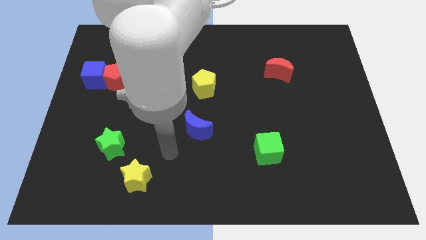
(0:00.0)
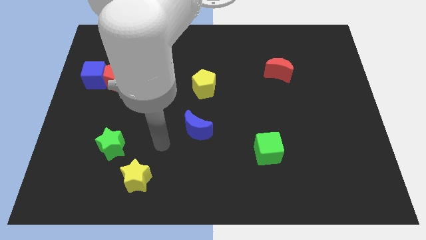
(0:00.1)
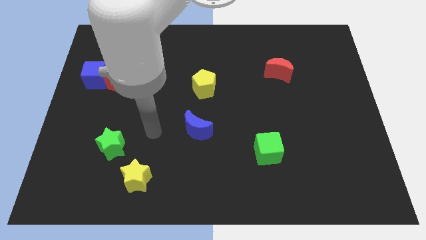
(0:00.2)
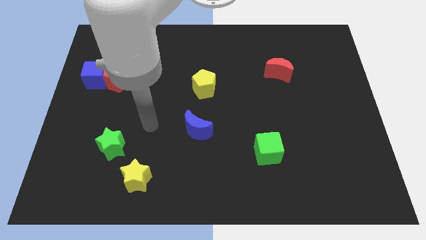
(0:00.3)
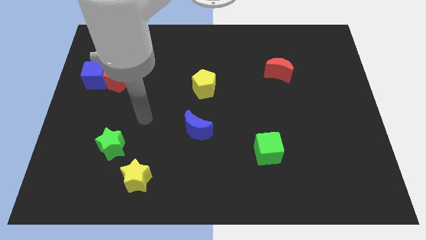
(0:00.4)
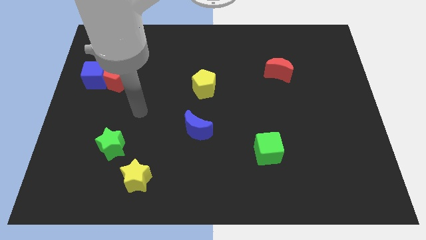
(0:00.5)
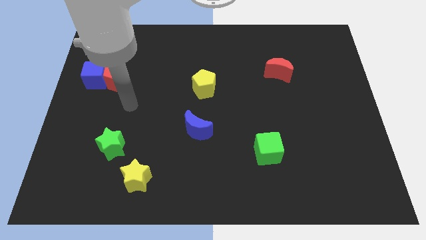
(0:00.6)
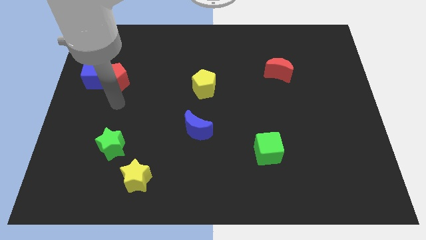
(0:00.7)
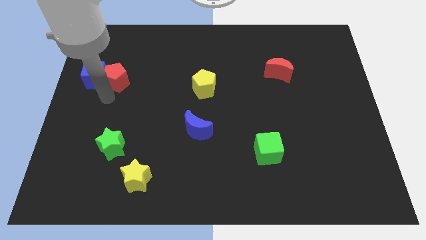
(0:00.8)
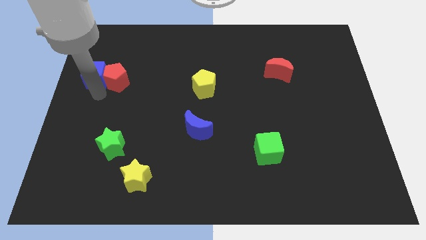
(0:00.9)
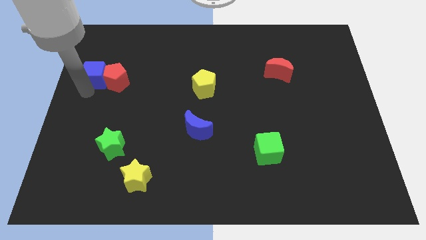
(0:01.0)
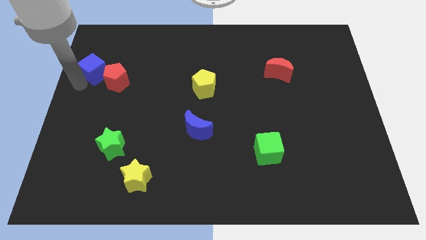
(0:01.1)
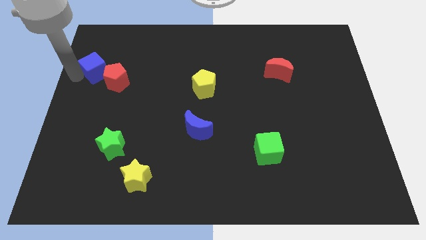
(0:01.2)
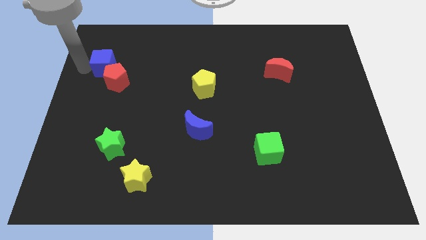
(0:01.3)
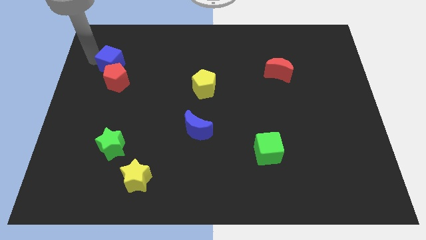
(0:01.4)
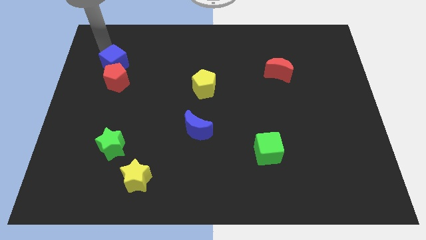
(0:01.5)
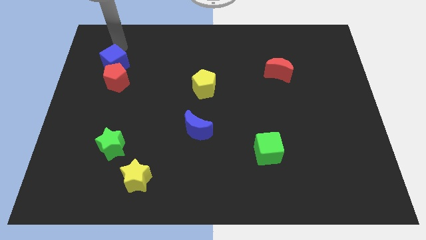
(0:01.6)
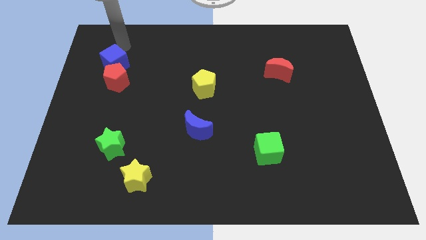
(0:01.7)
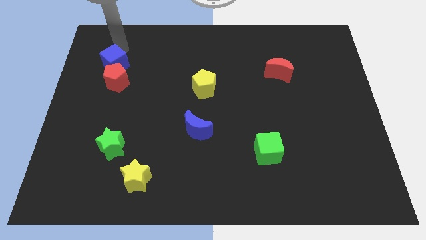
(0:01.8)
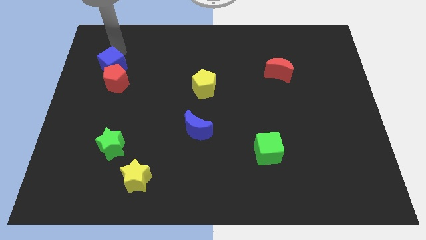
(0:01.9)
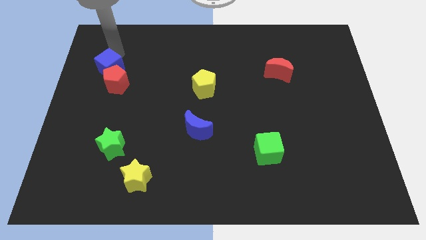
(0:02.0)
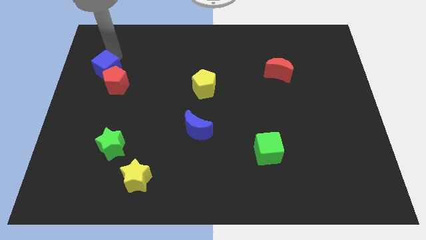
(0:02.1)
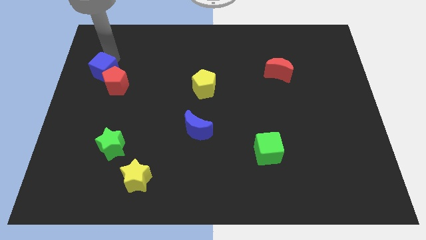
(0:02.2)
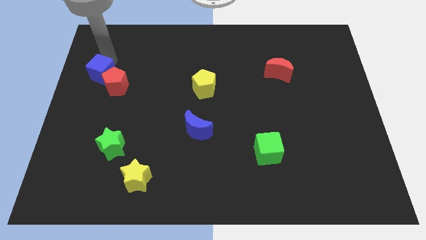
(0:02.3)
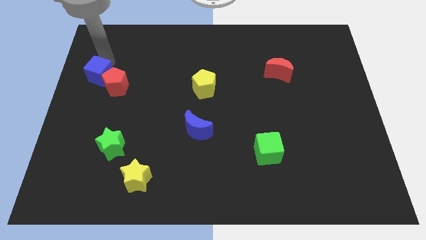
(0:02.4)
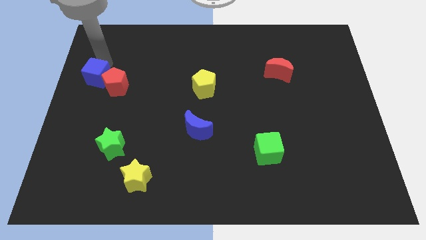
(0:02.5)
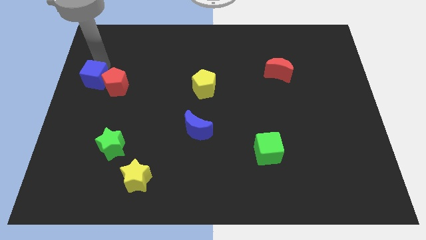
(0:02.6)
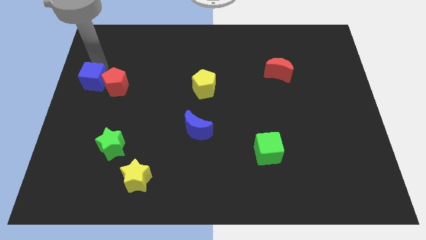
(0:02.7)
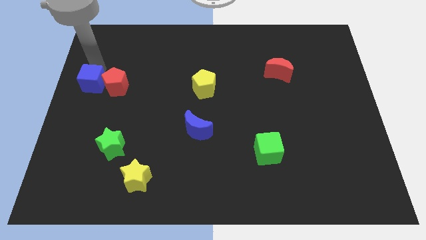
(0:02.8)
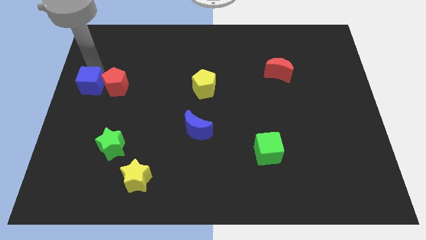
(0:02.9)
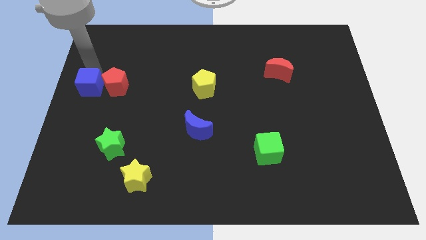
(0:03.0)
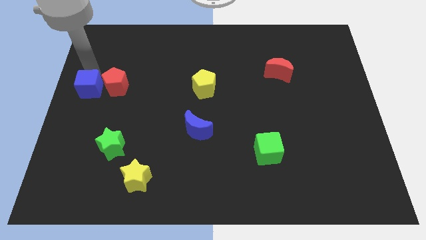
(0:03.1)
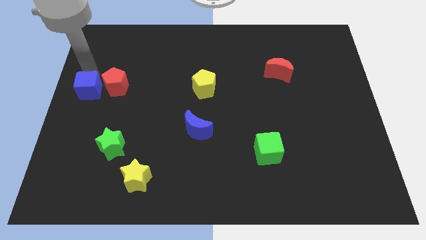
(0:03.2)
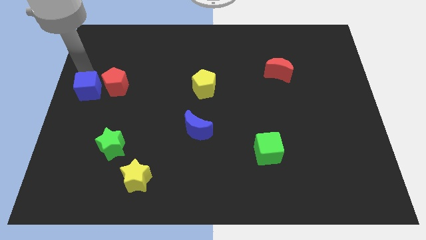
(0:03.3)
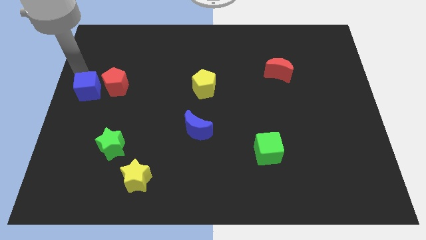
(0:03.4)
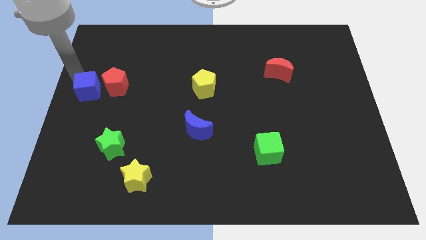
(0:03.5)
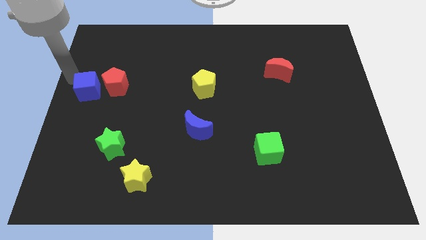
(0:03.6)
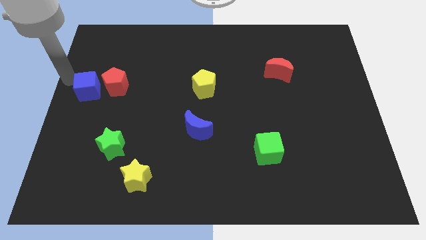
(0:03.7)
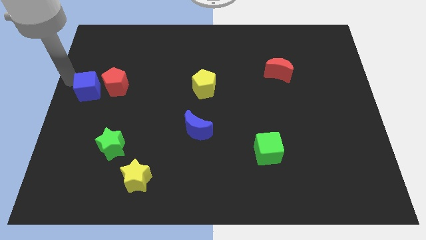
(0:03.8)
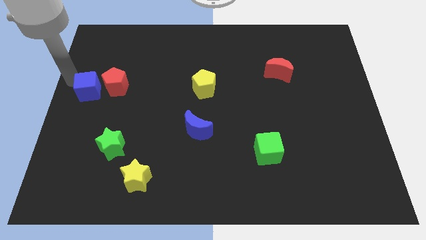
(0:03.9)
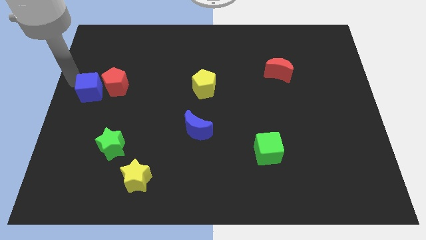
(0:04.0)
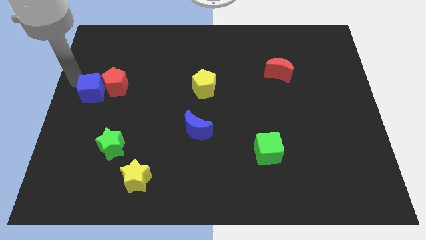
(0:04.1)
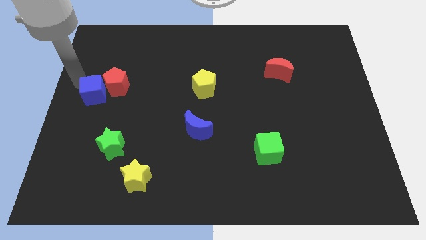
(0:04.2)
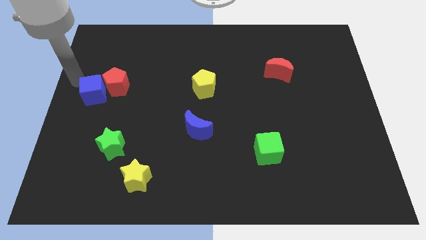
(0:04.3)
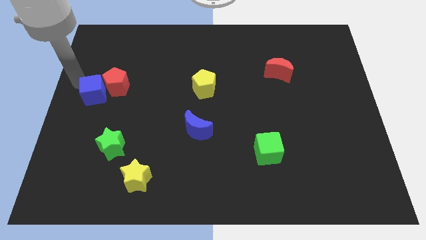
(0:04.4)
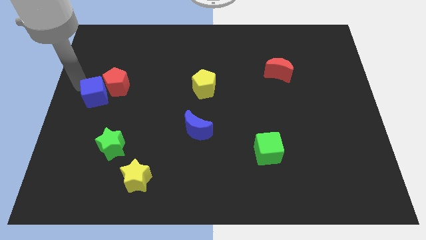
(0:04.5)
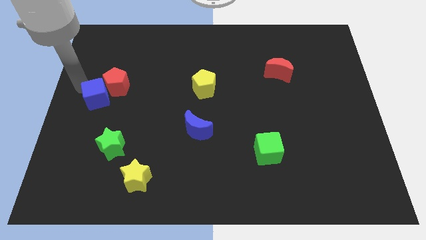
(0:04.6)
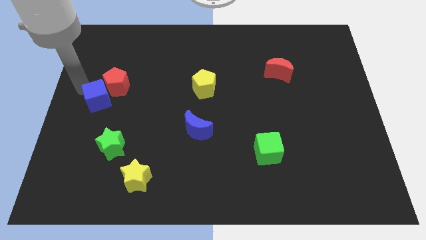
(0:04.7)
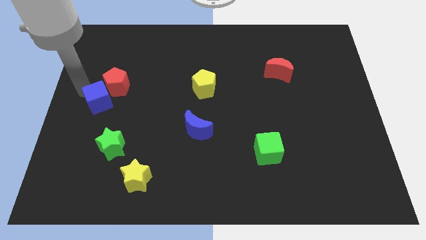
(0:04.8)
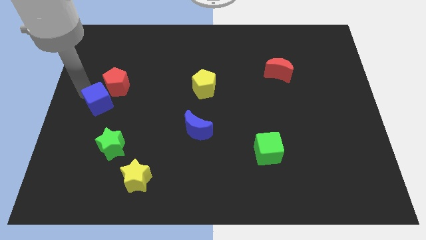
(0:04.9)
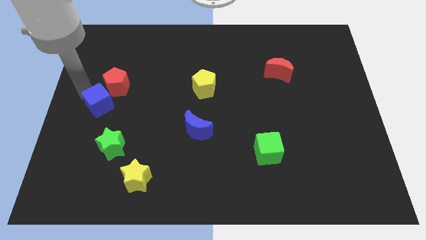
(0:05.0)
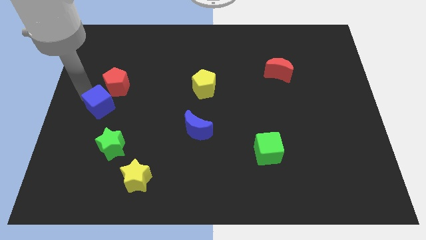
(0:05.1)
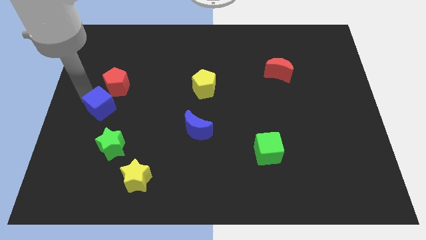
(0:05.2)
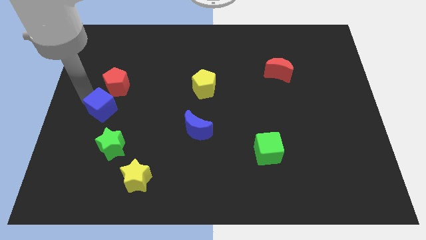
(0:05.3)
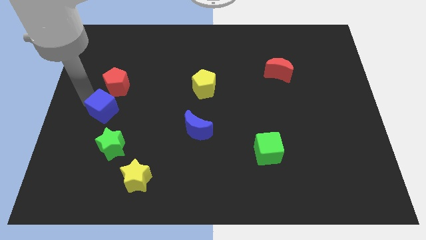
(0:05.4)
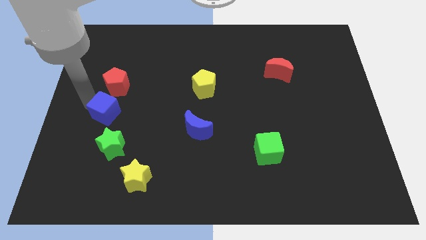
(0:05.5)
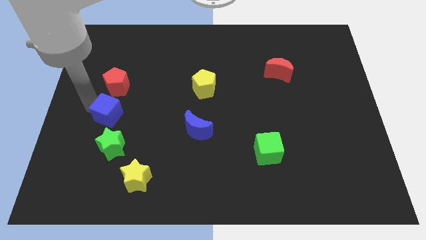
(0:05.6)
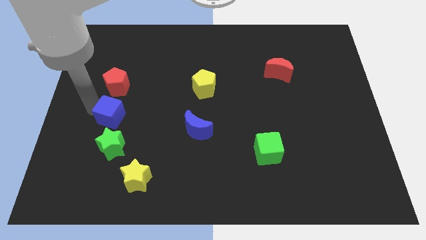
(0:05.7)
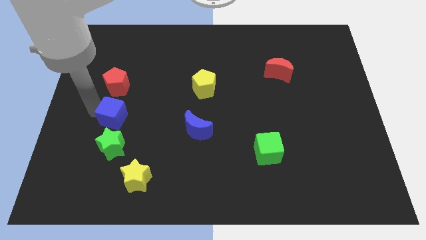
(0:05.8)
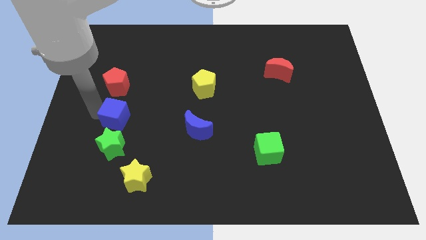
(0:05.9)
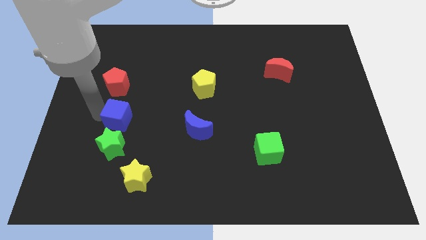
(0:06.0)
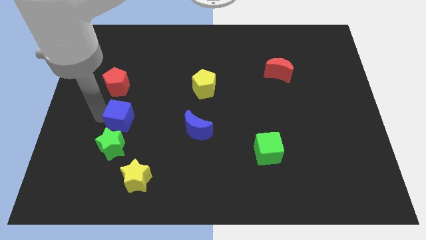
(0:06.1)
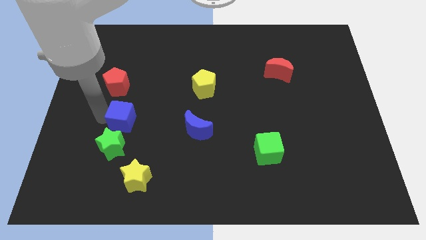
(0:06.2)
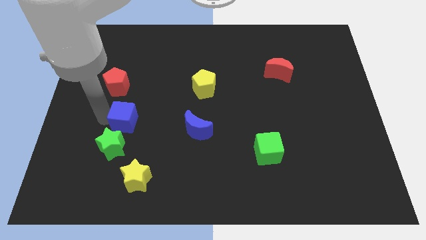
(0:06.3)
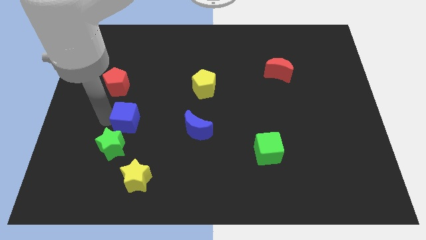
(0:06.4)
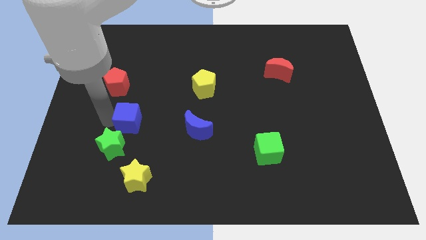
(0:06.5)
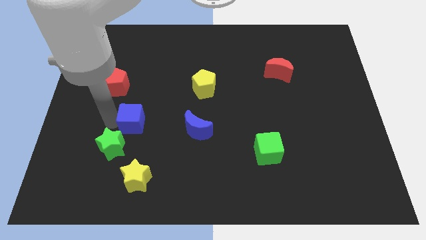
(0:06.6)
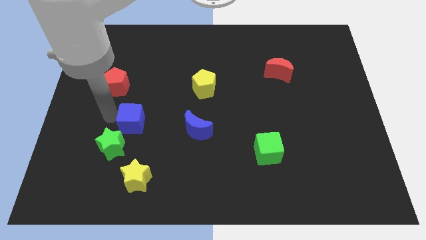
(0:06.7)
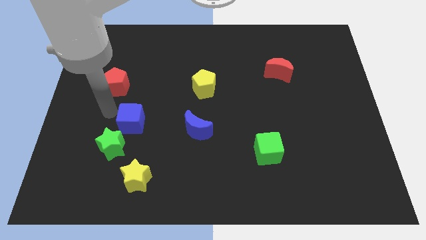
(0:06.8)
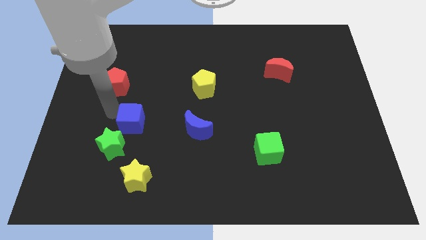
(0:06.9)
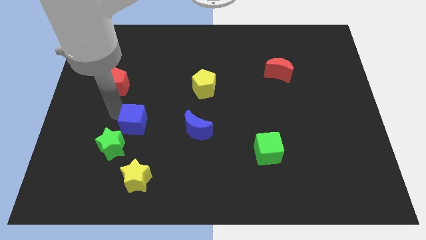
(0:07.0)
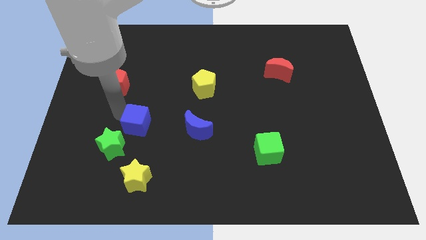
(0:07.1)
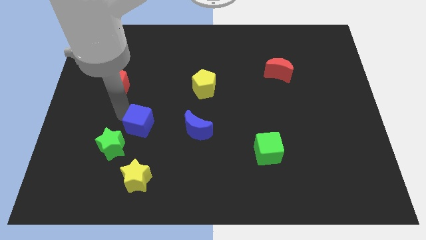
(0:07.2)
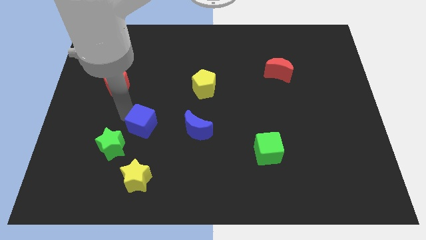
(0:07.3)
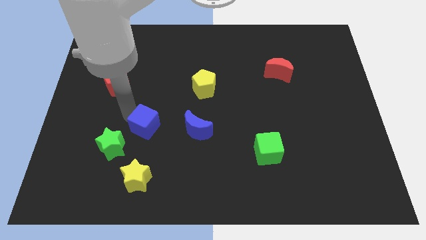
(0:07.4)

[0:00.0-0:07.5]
push the blue cube downwards and to the right diagonally

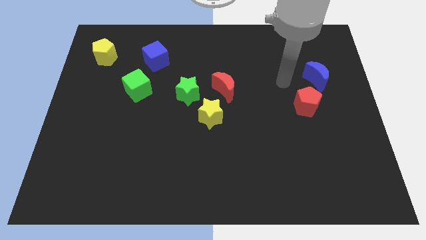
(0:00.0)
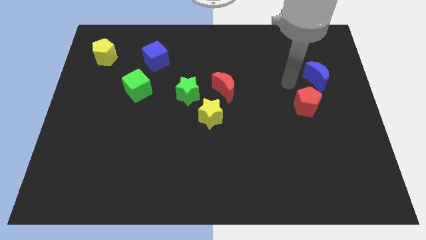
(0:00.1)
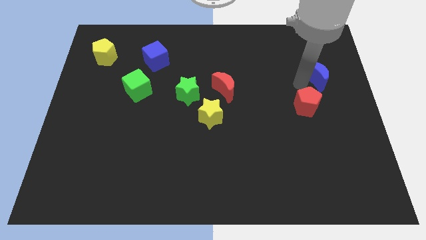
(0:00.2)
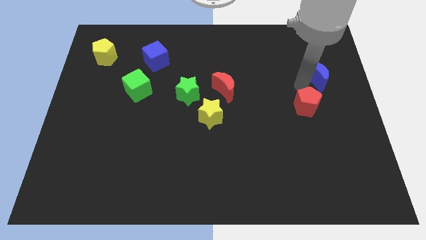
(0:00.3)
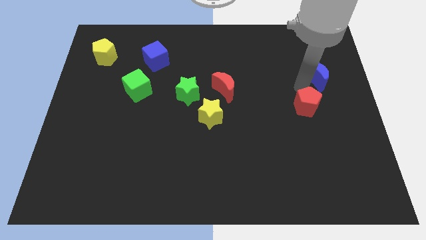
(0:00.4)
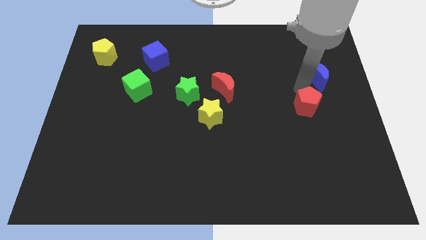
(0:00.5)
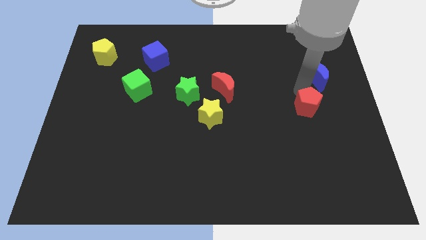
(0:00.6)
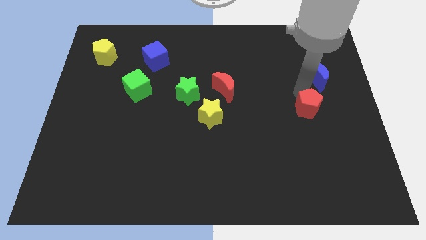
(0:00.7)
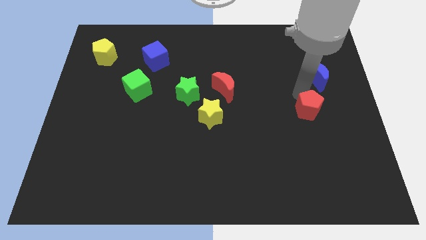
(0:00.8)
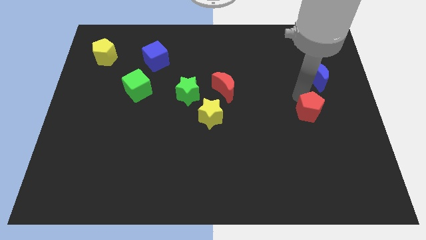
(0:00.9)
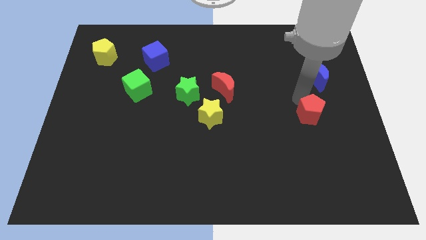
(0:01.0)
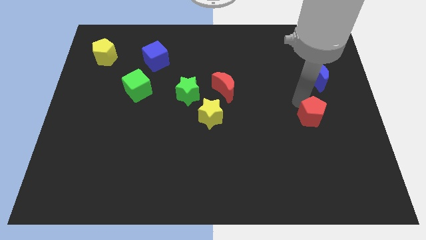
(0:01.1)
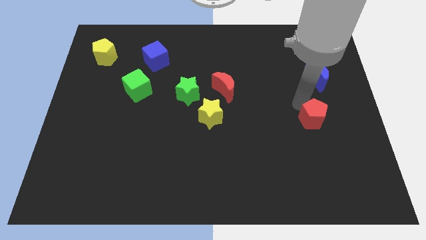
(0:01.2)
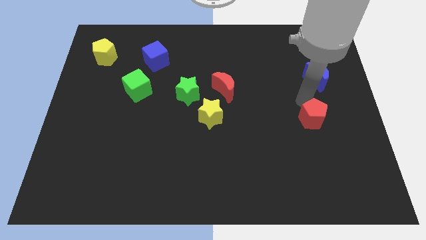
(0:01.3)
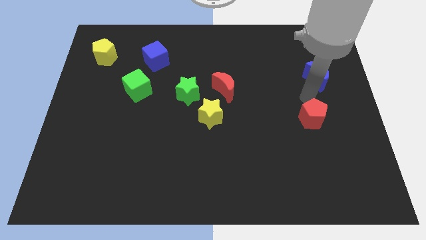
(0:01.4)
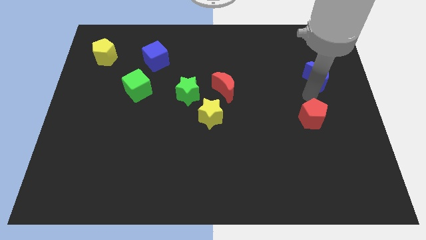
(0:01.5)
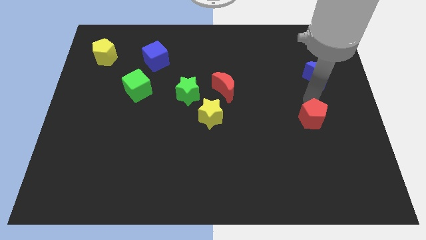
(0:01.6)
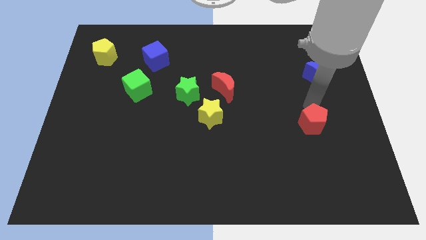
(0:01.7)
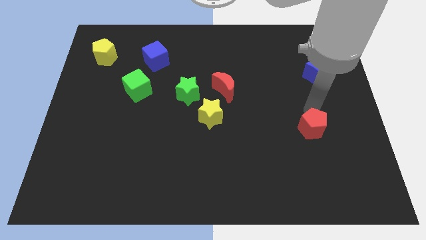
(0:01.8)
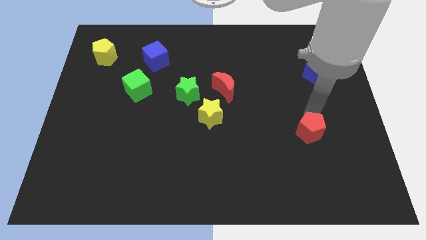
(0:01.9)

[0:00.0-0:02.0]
slide the red pentagon down slightly
